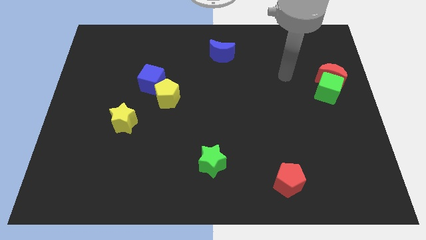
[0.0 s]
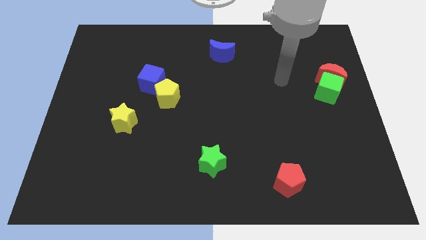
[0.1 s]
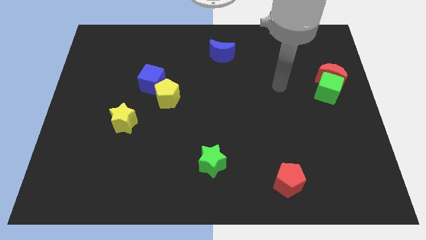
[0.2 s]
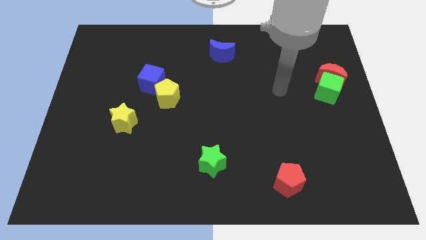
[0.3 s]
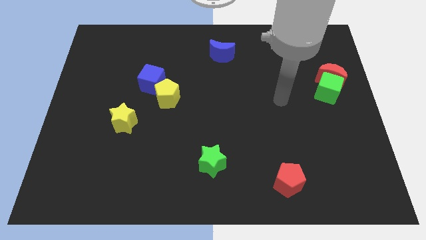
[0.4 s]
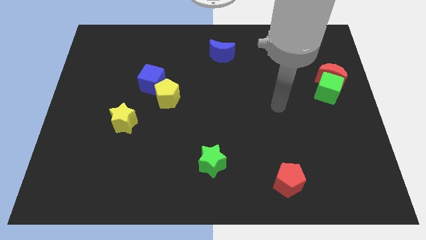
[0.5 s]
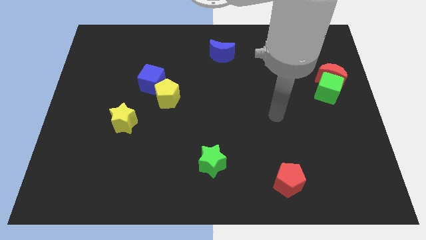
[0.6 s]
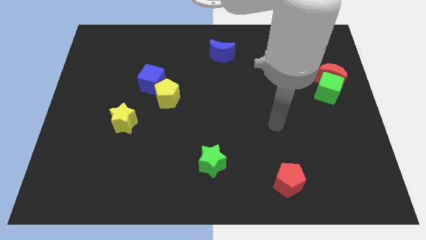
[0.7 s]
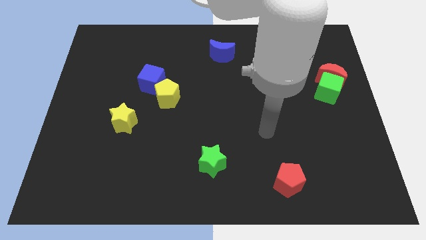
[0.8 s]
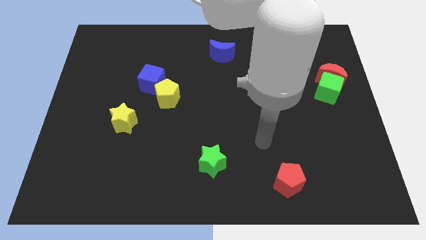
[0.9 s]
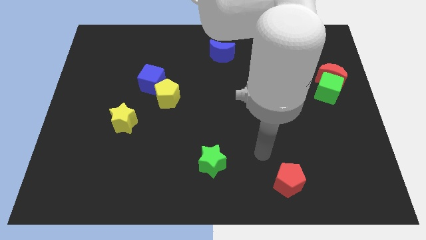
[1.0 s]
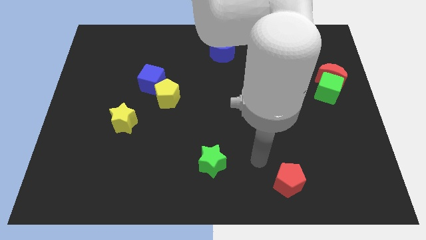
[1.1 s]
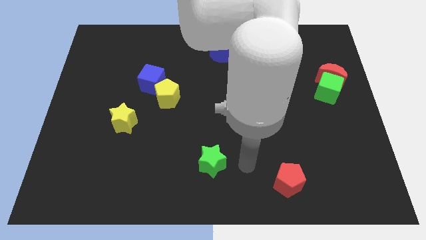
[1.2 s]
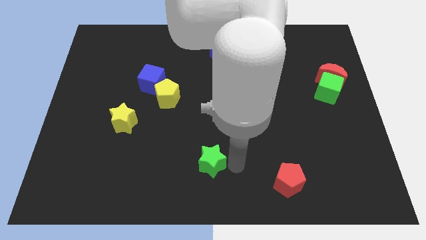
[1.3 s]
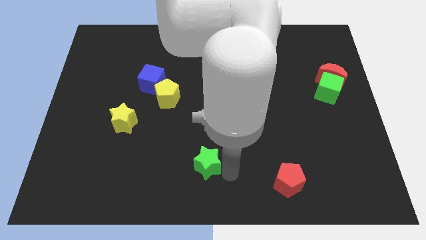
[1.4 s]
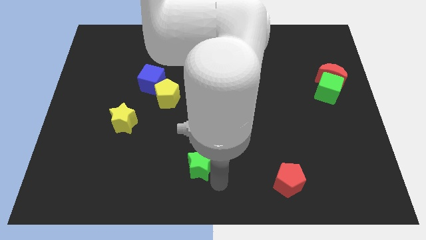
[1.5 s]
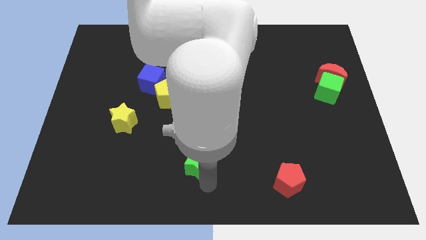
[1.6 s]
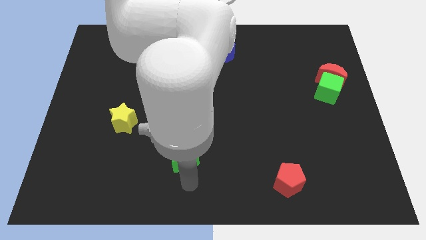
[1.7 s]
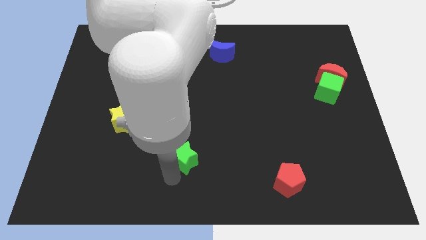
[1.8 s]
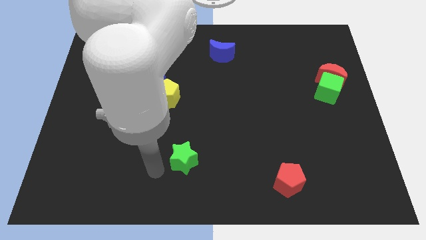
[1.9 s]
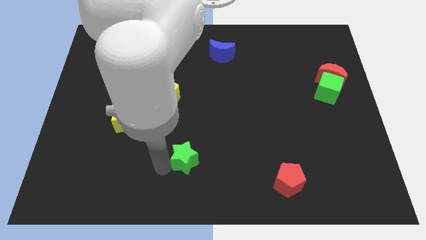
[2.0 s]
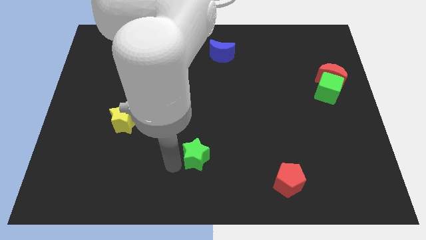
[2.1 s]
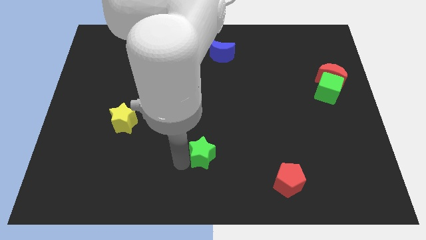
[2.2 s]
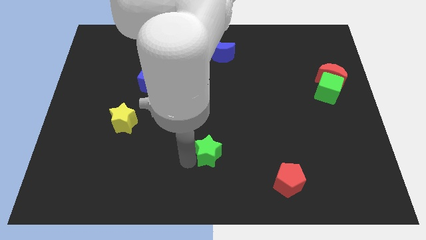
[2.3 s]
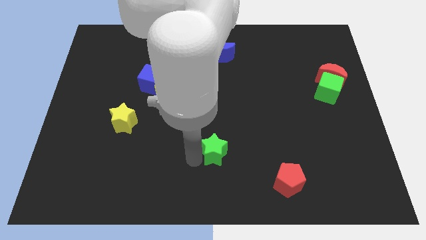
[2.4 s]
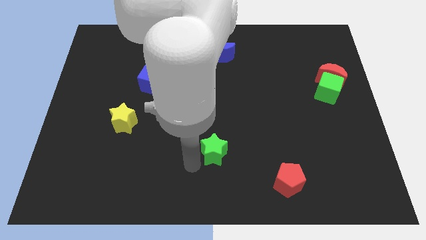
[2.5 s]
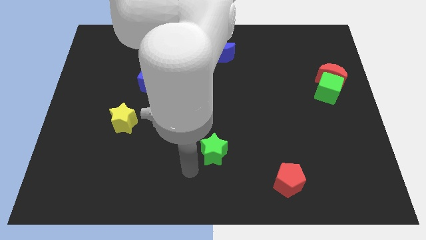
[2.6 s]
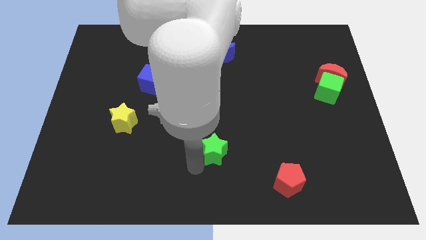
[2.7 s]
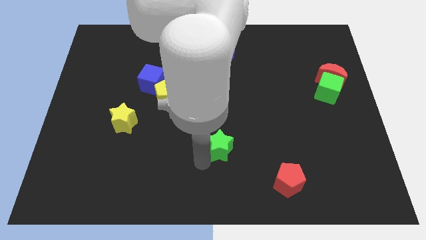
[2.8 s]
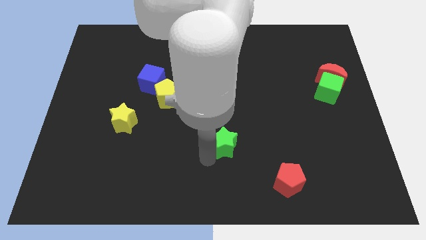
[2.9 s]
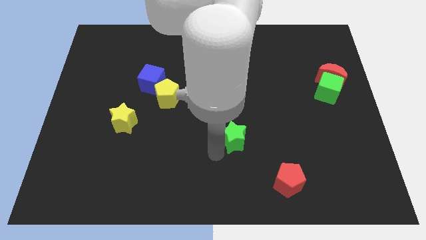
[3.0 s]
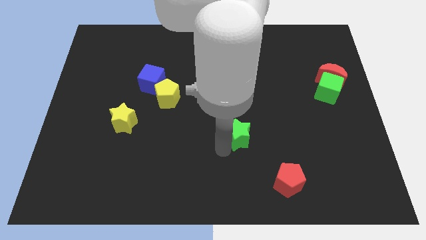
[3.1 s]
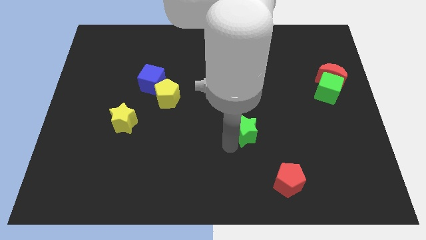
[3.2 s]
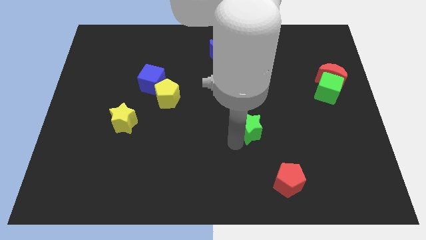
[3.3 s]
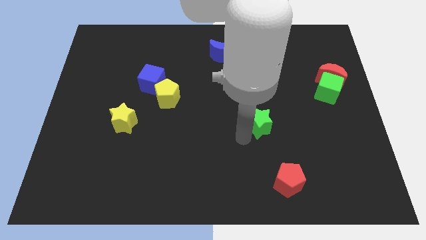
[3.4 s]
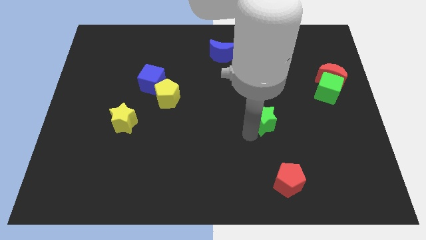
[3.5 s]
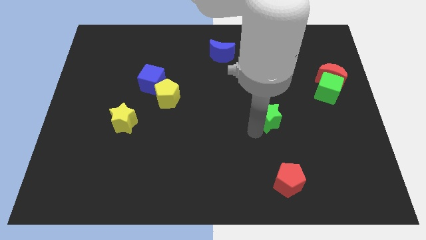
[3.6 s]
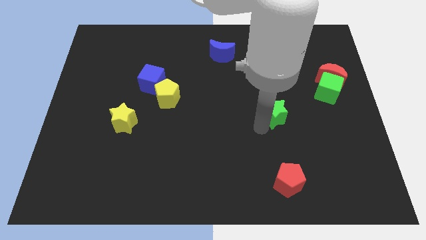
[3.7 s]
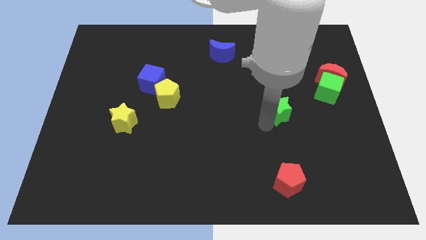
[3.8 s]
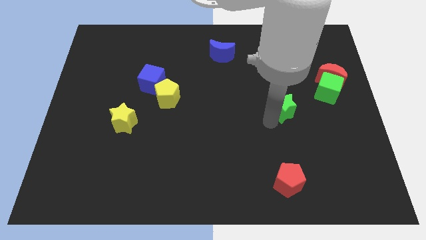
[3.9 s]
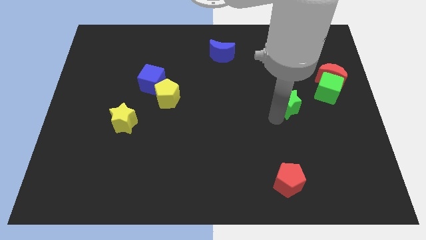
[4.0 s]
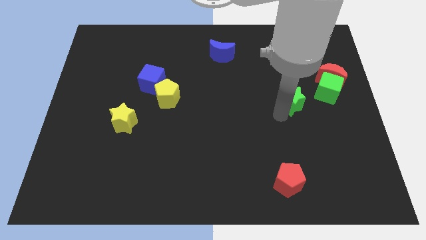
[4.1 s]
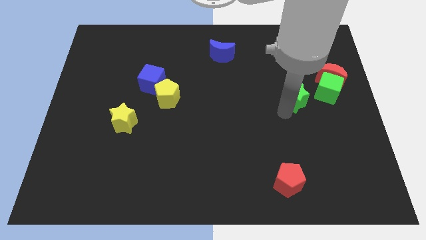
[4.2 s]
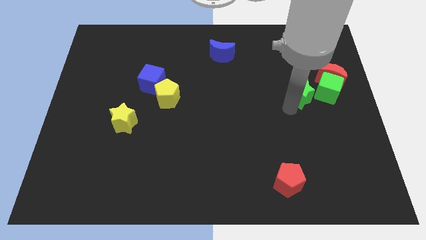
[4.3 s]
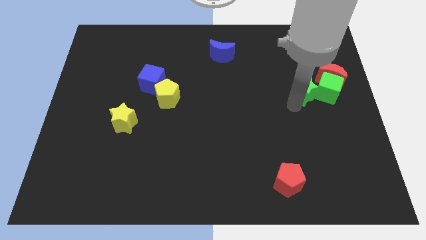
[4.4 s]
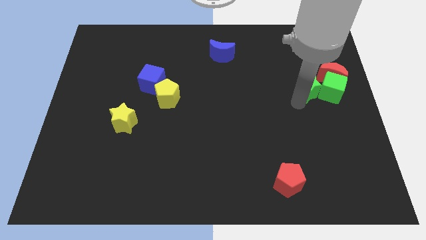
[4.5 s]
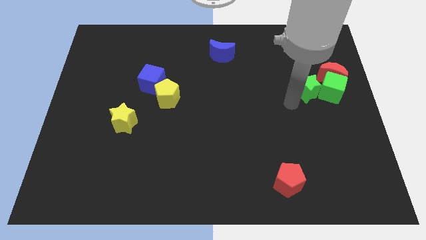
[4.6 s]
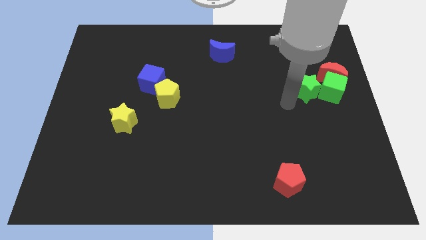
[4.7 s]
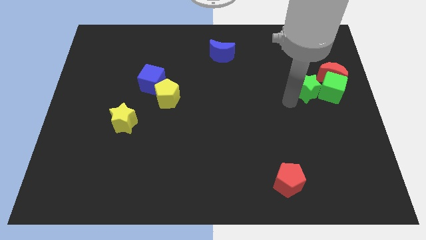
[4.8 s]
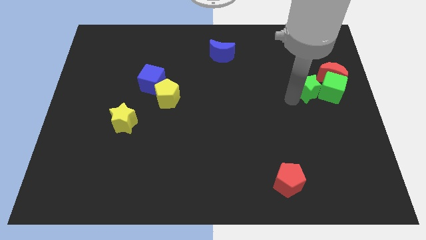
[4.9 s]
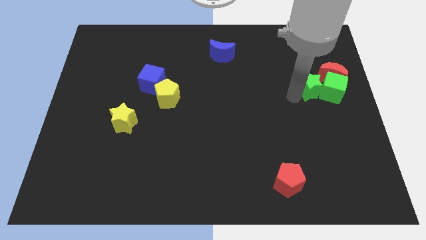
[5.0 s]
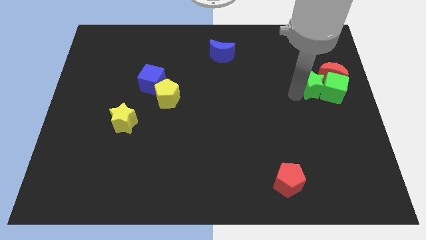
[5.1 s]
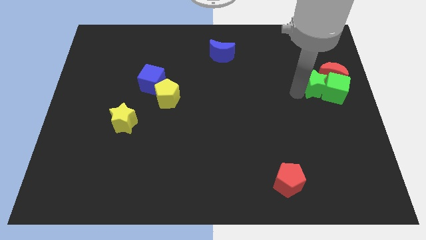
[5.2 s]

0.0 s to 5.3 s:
move the green star to the red moon

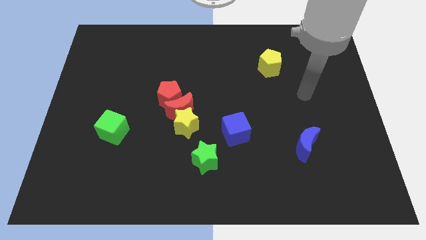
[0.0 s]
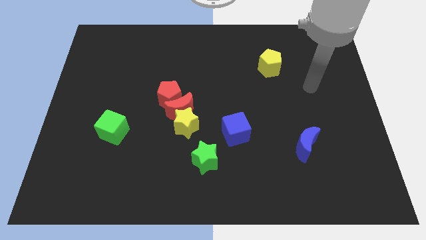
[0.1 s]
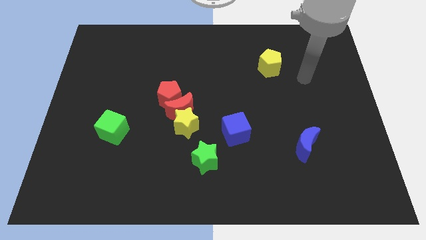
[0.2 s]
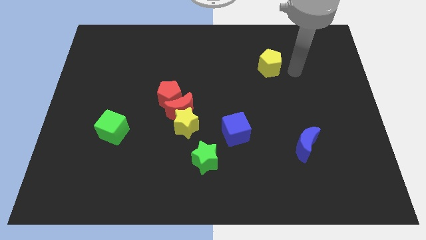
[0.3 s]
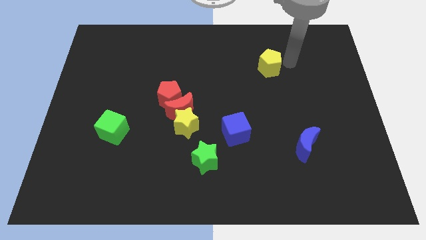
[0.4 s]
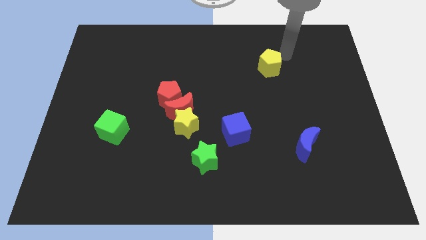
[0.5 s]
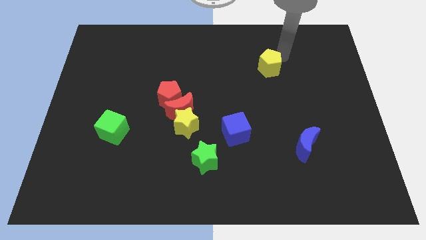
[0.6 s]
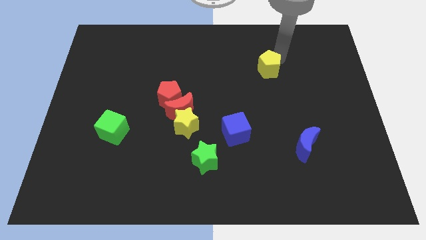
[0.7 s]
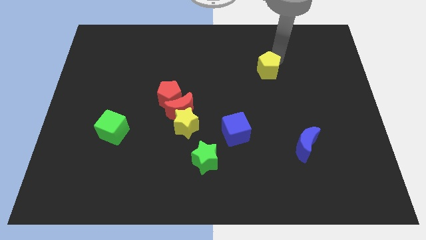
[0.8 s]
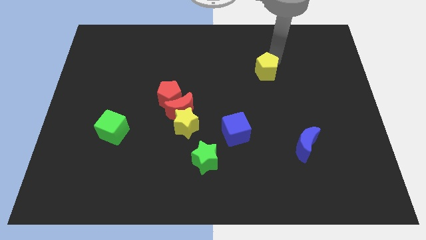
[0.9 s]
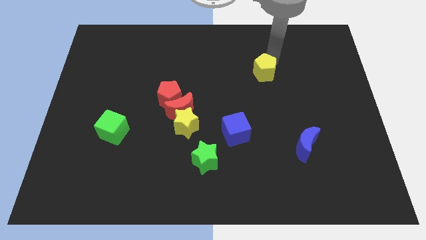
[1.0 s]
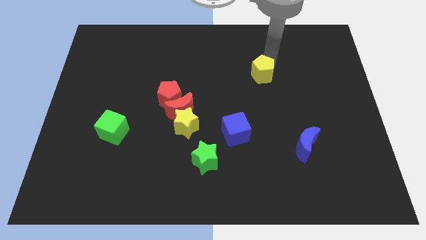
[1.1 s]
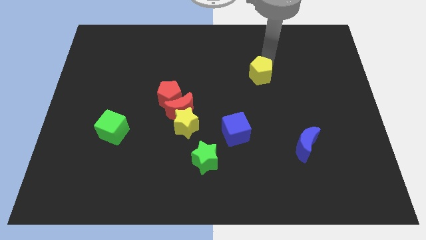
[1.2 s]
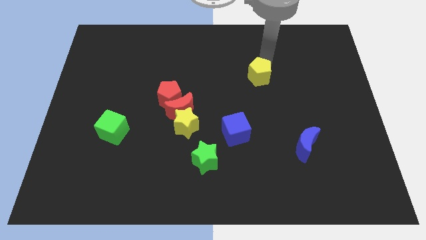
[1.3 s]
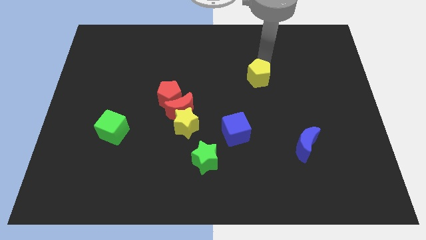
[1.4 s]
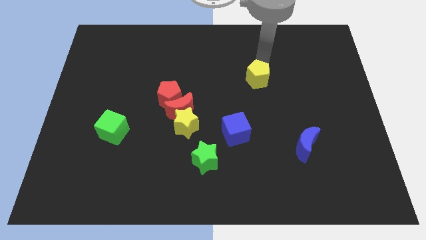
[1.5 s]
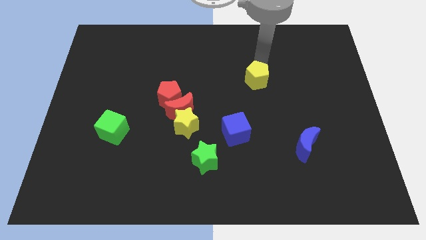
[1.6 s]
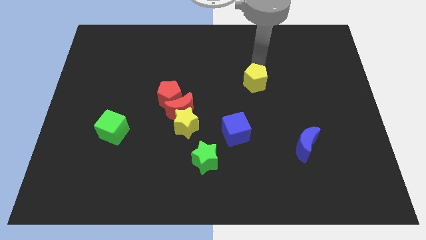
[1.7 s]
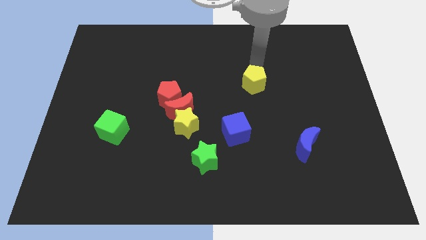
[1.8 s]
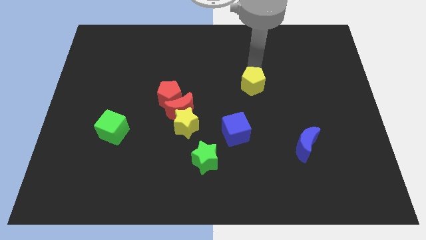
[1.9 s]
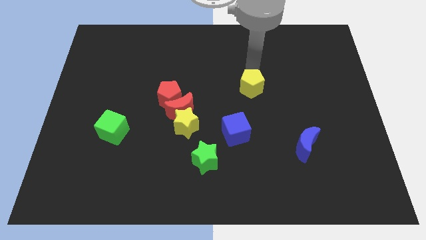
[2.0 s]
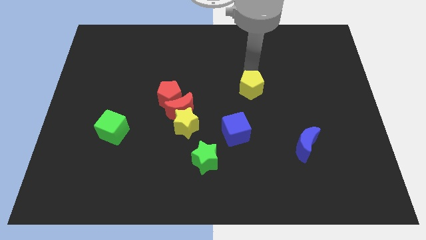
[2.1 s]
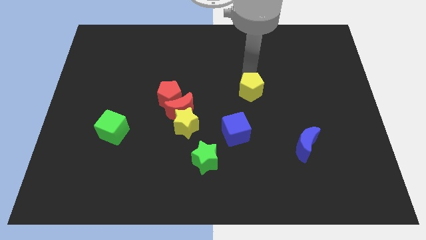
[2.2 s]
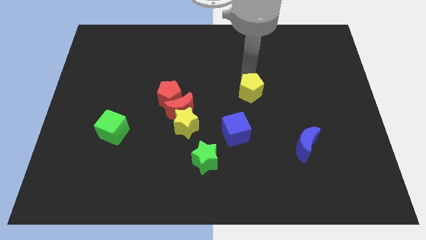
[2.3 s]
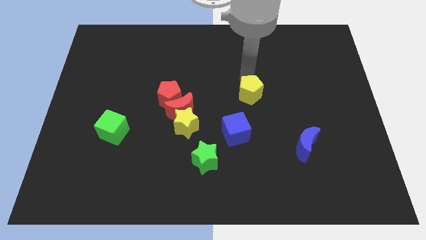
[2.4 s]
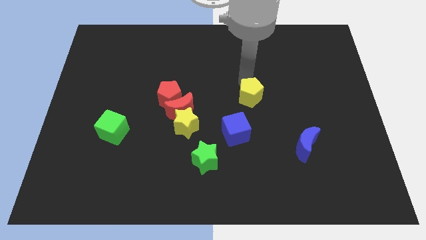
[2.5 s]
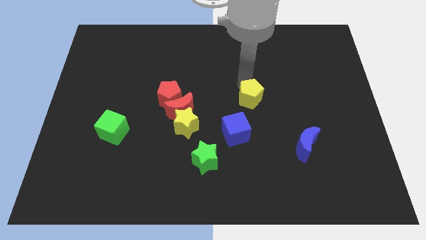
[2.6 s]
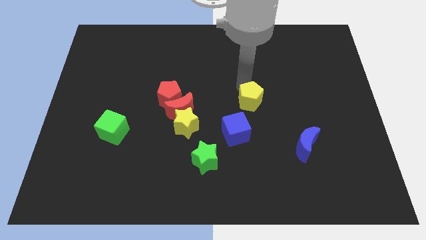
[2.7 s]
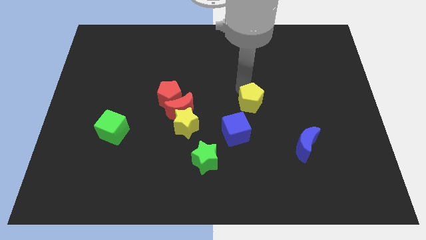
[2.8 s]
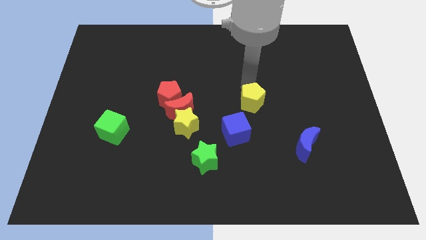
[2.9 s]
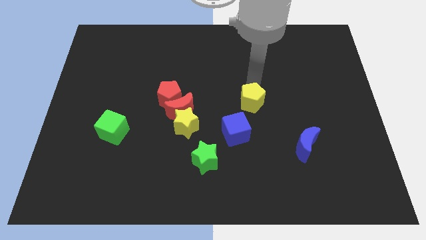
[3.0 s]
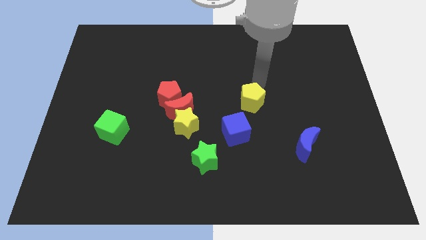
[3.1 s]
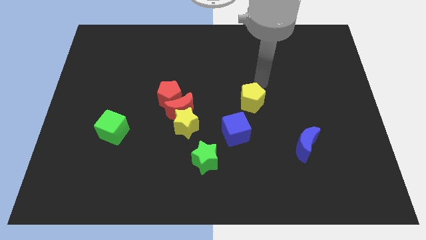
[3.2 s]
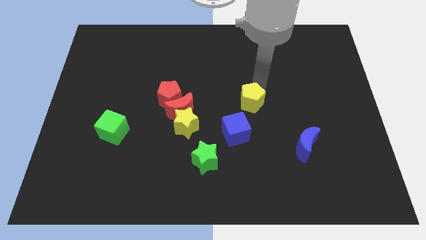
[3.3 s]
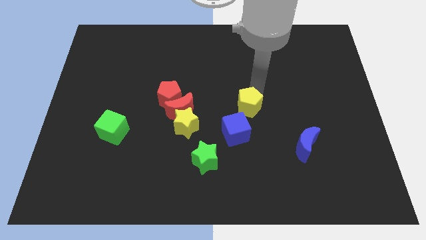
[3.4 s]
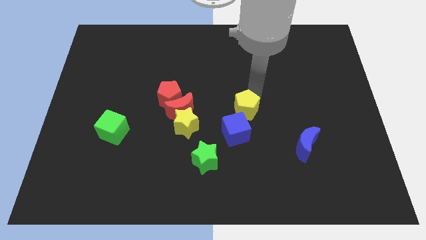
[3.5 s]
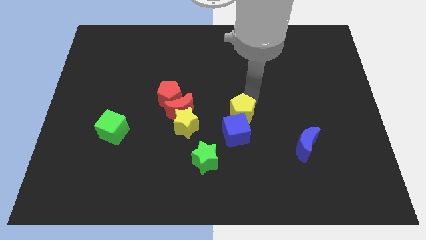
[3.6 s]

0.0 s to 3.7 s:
put the yellow pentagon towards the blue cube
